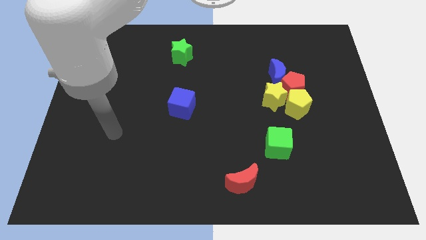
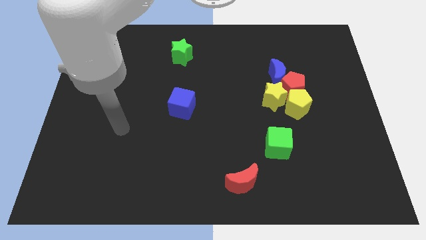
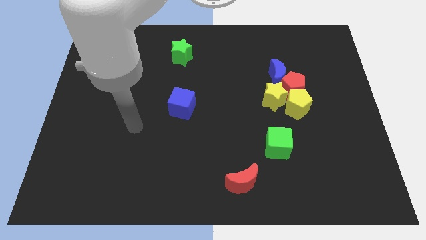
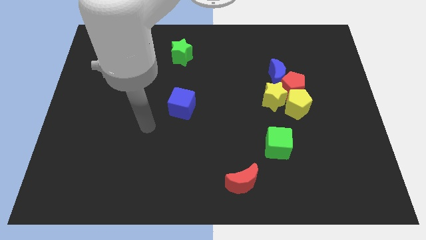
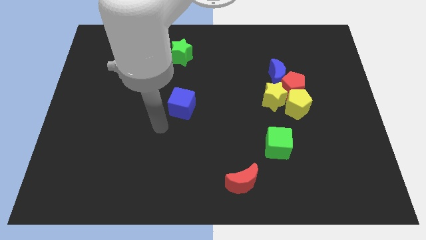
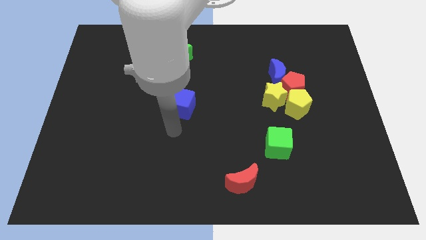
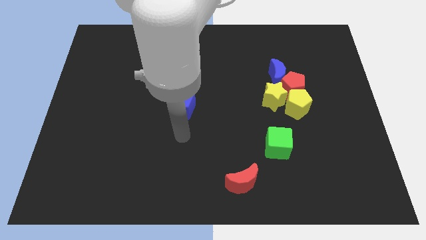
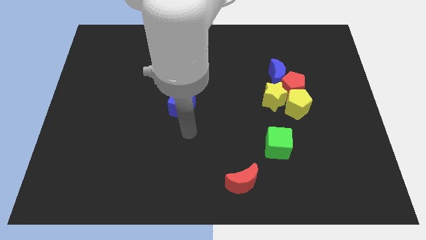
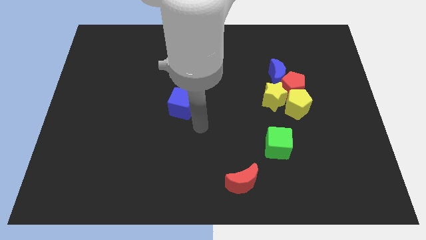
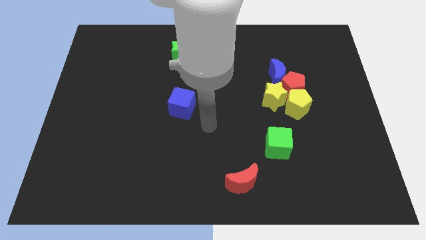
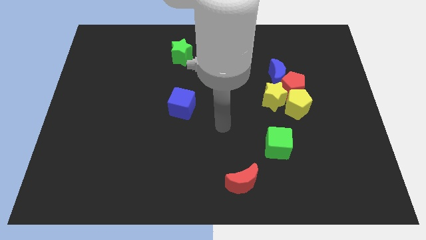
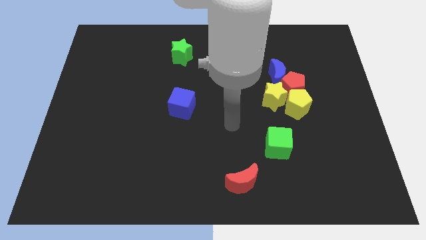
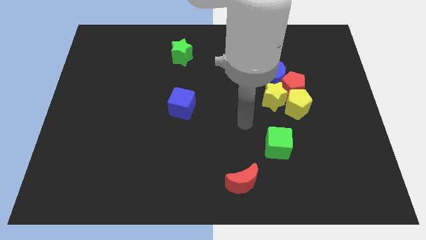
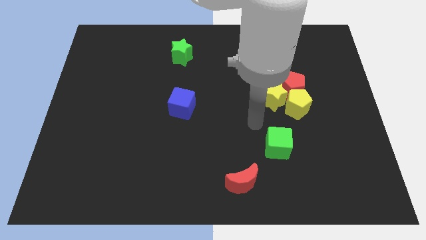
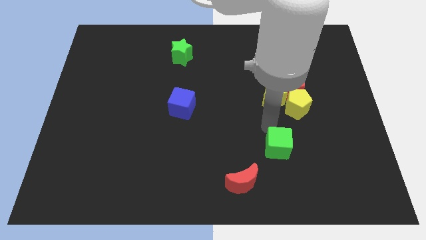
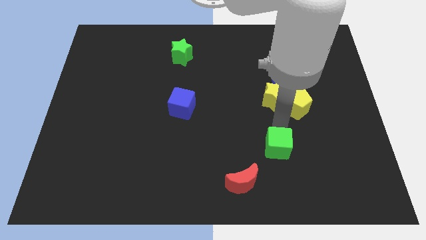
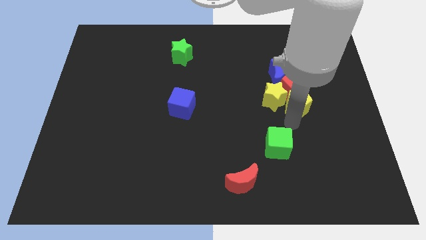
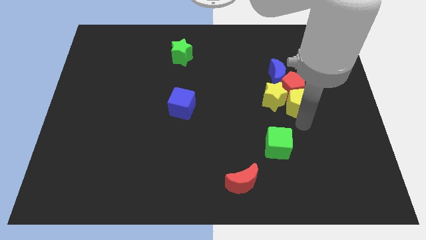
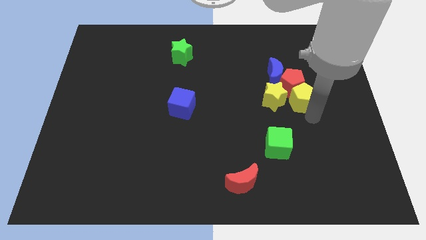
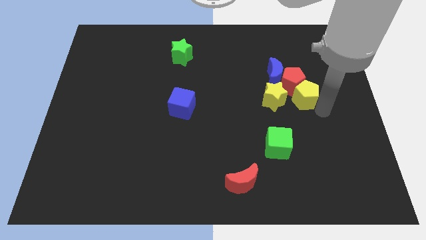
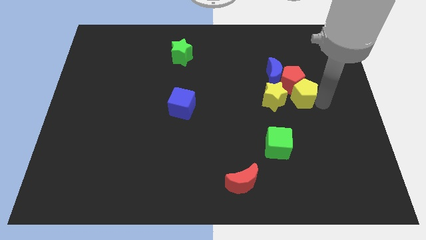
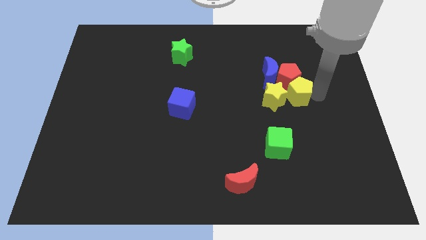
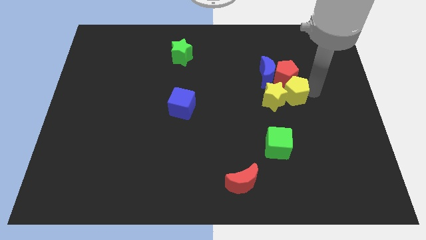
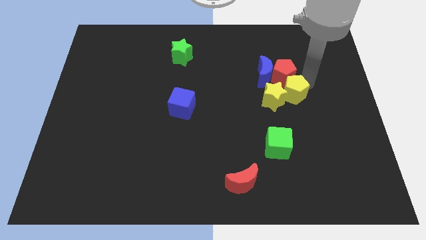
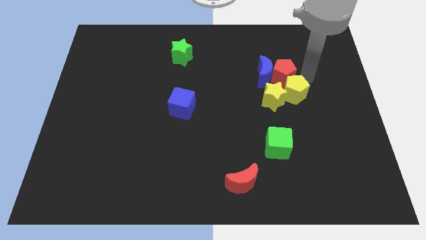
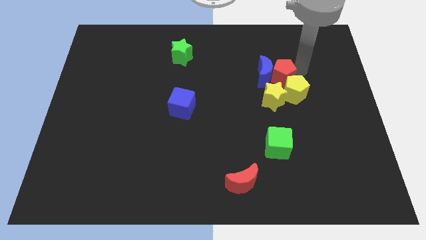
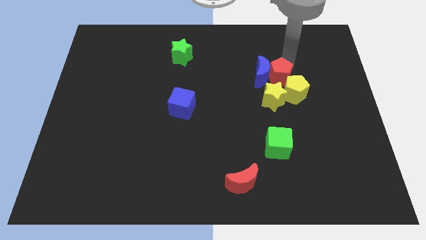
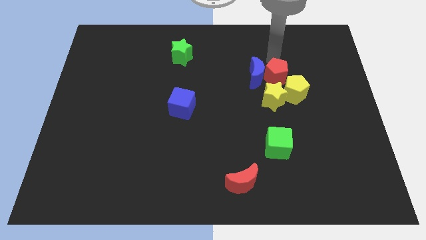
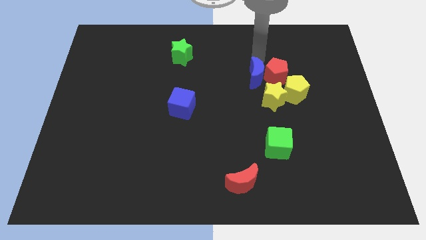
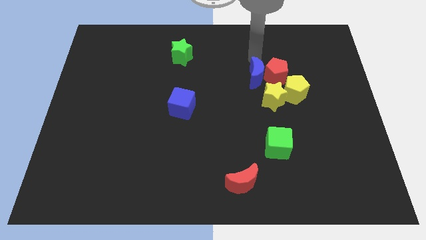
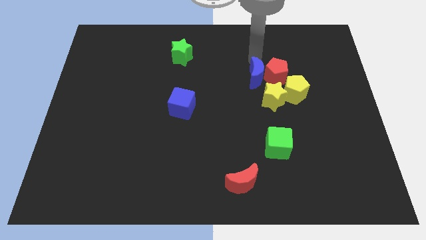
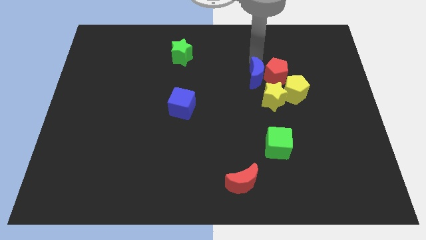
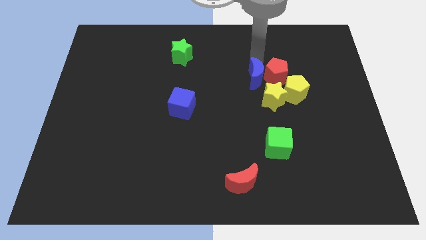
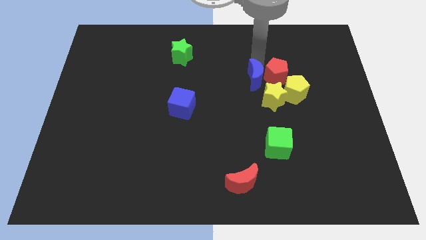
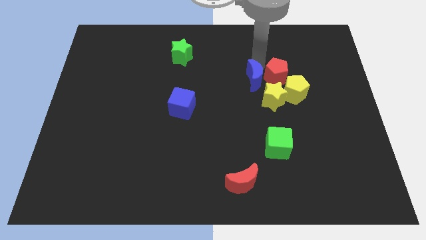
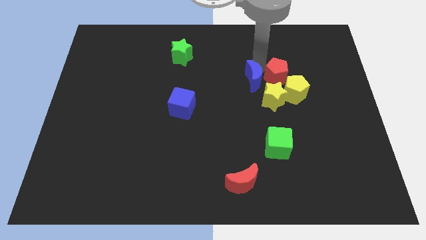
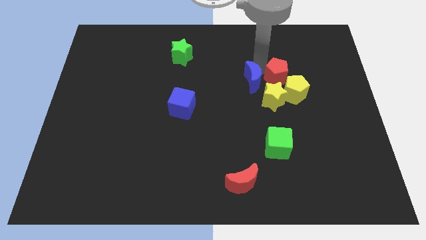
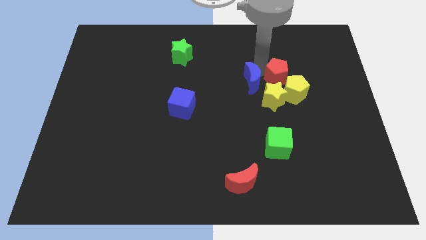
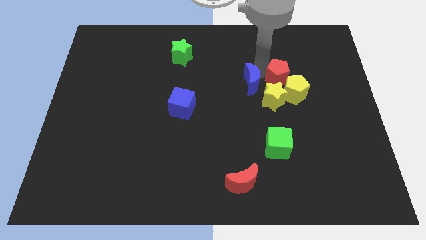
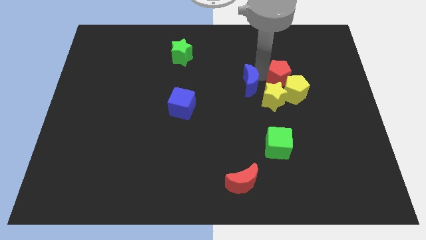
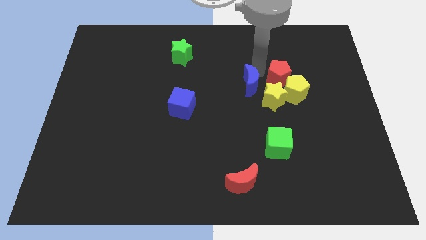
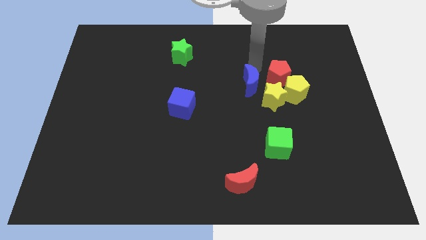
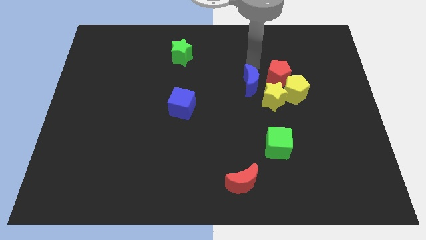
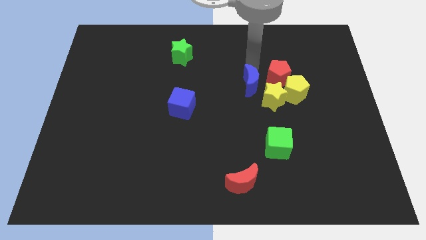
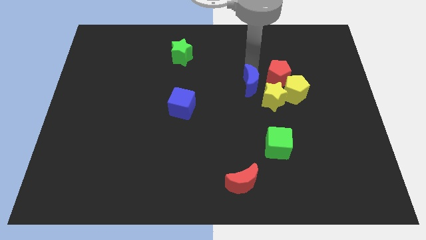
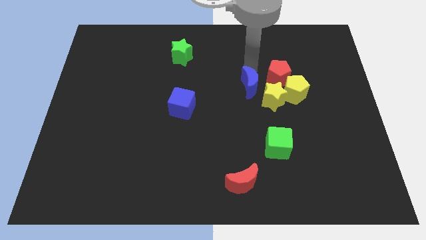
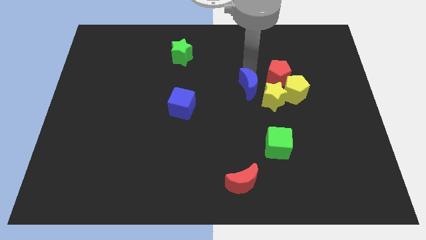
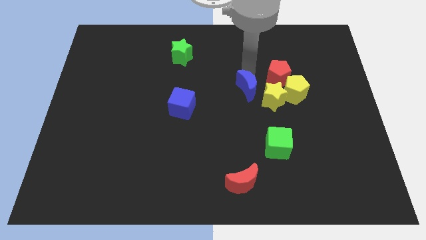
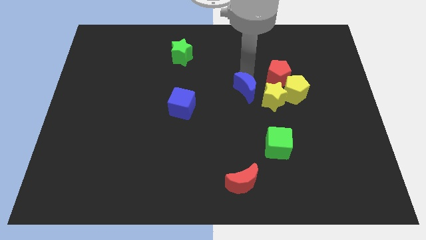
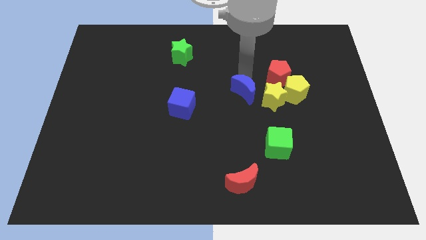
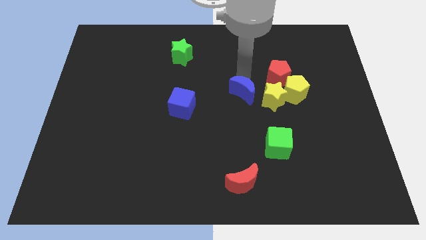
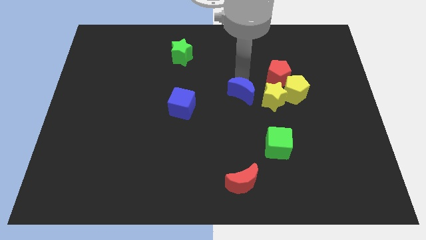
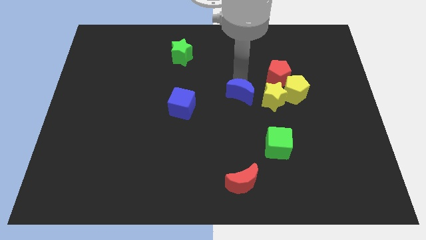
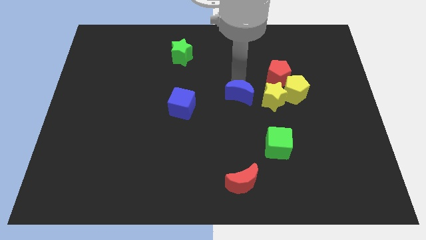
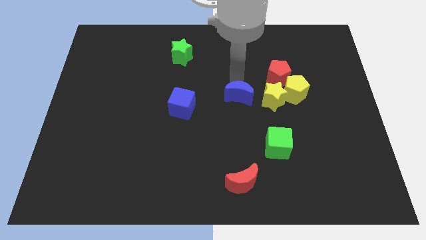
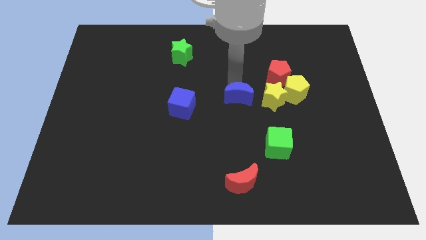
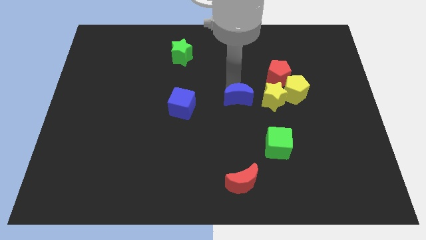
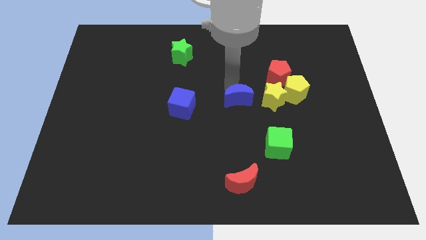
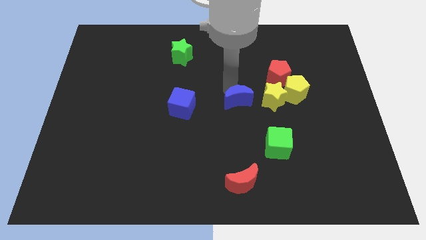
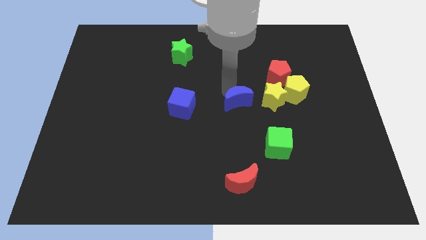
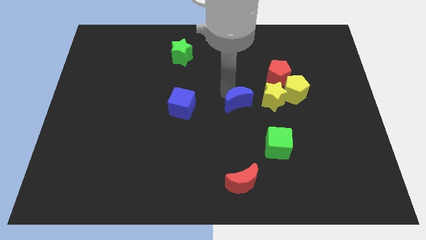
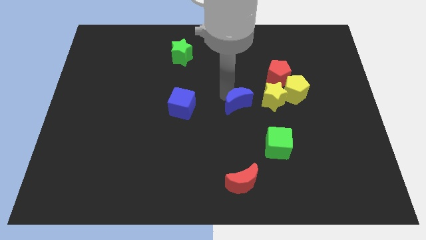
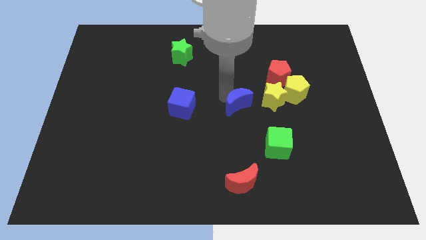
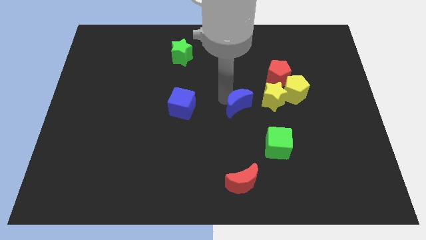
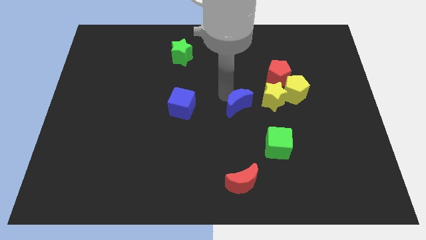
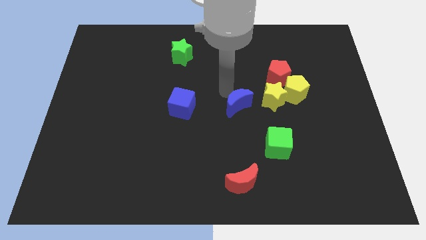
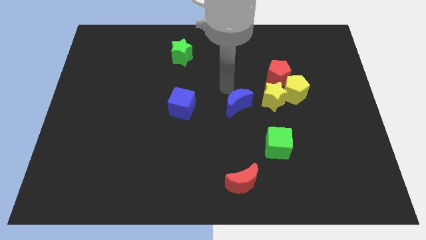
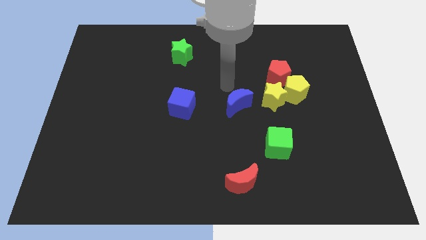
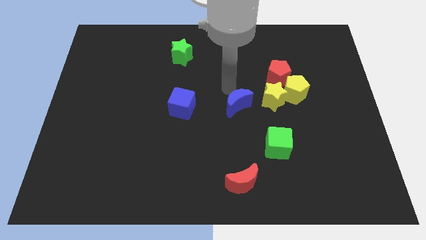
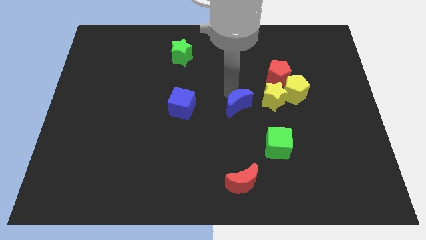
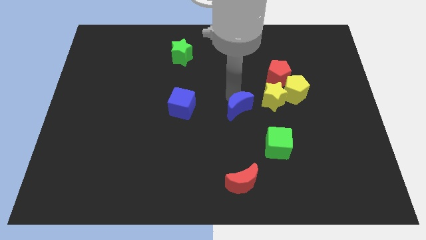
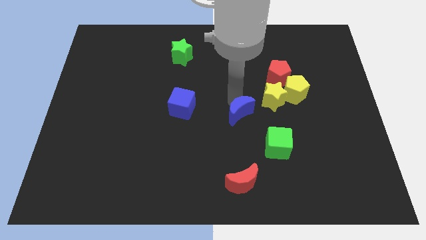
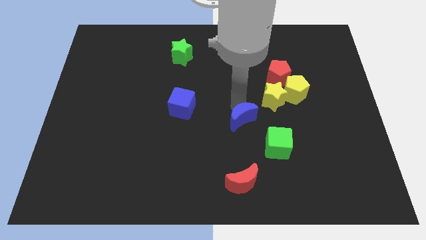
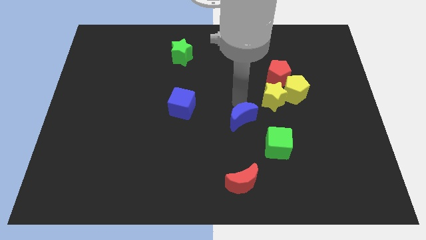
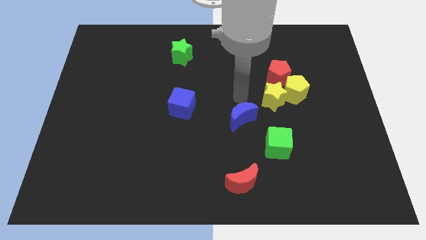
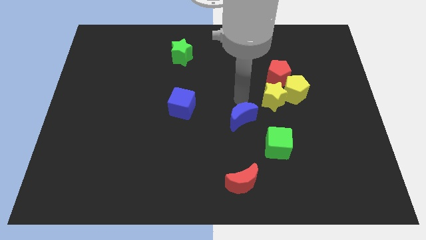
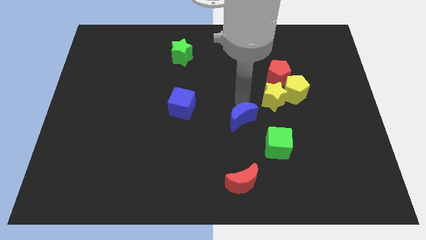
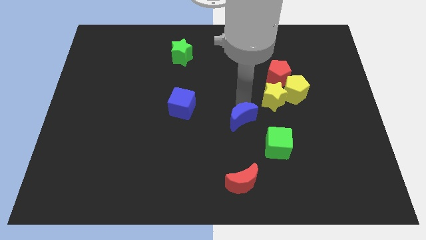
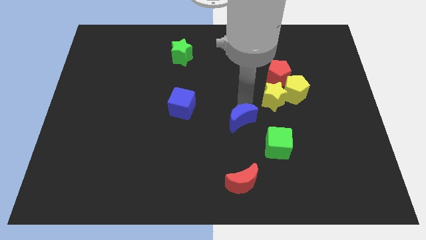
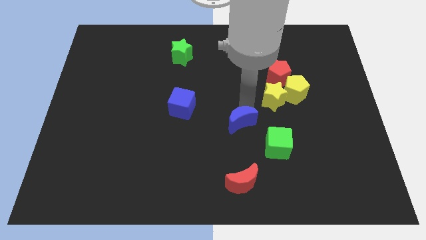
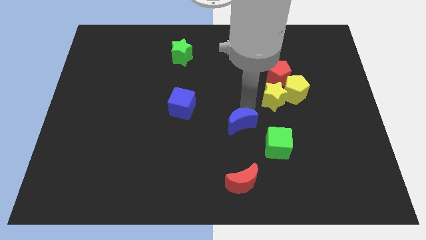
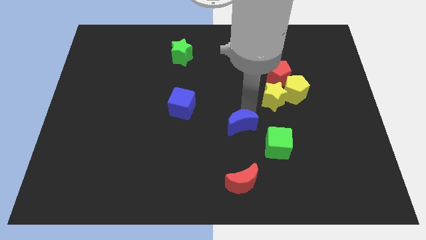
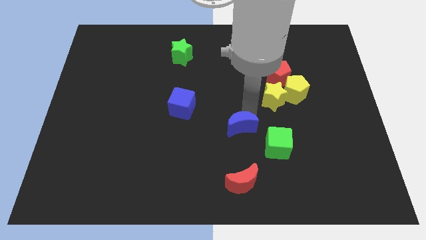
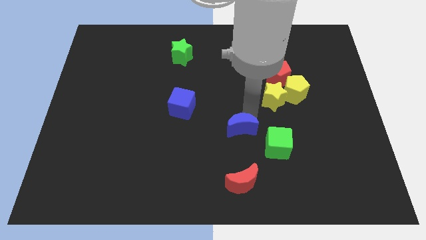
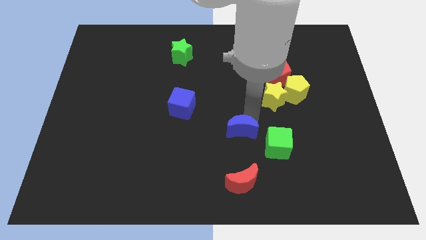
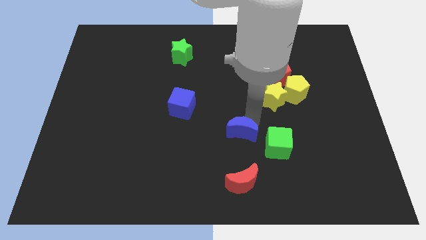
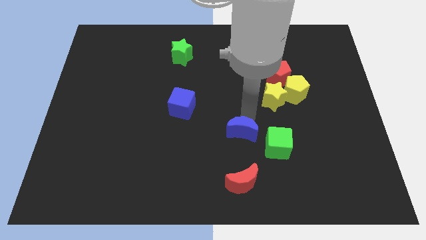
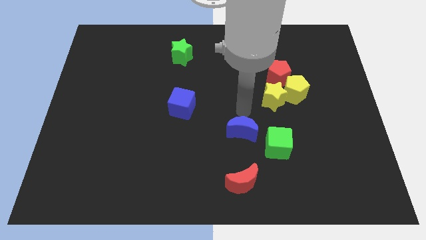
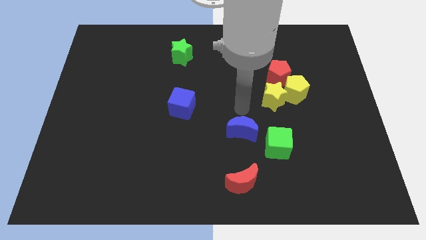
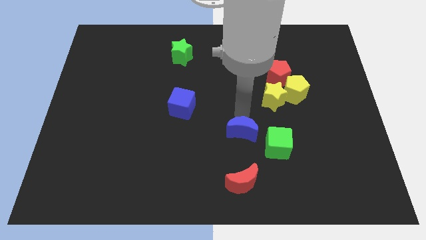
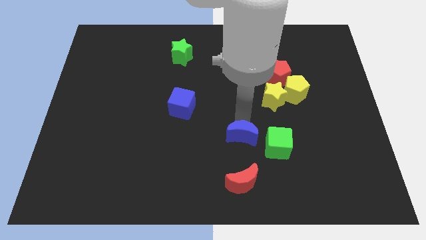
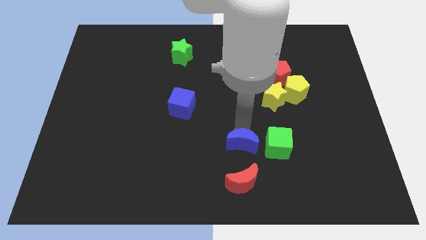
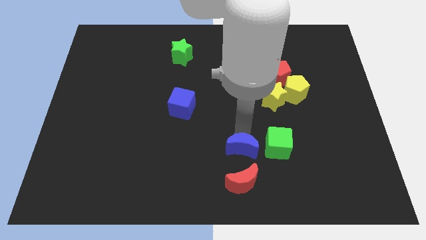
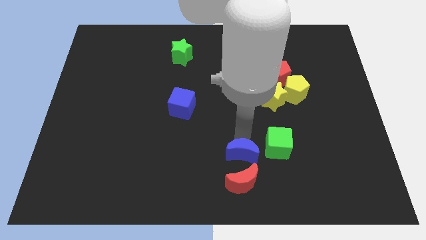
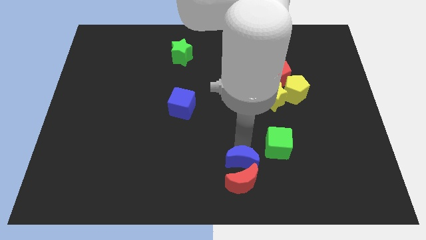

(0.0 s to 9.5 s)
put the blue moon close to the red moon
